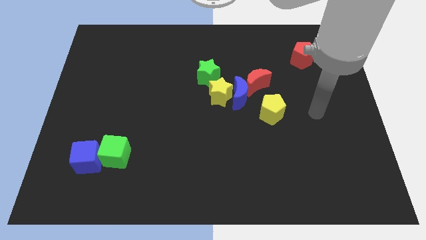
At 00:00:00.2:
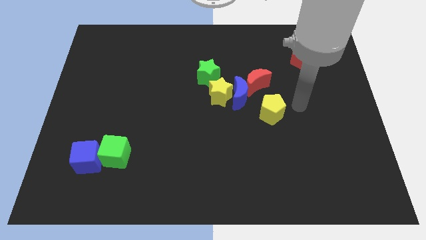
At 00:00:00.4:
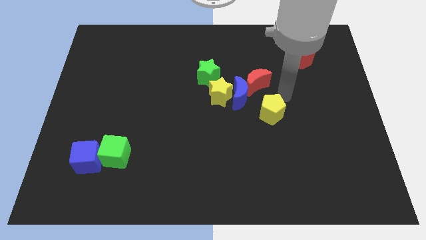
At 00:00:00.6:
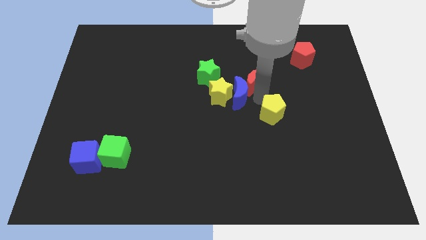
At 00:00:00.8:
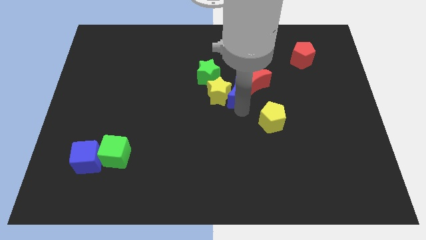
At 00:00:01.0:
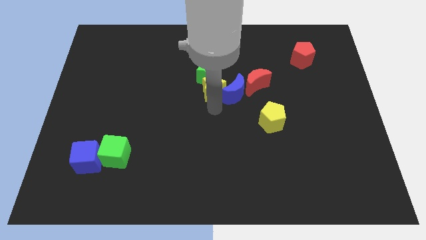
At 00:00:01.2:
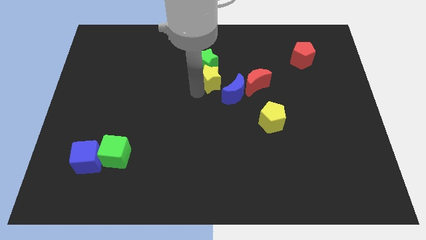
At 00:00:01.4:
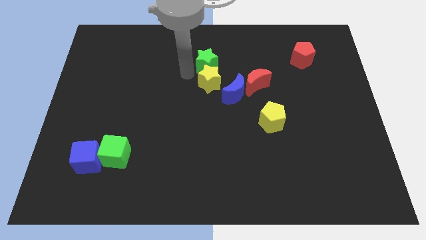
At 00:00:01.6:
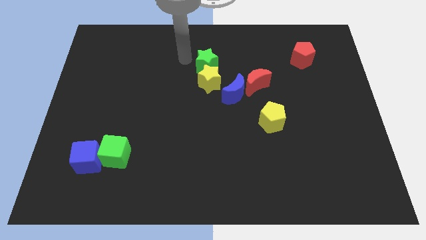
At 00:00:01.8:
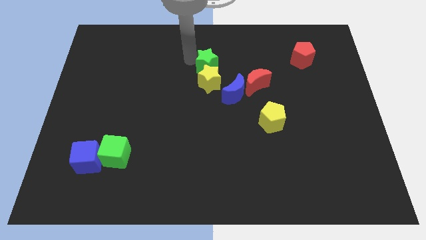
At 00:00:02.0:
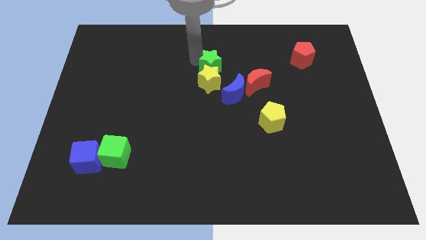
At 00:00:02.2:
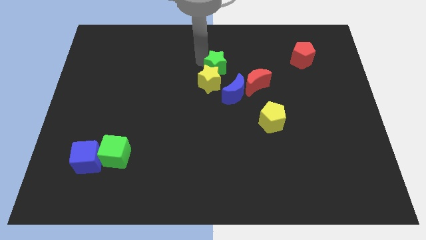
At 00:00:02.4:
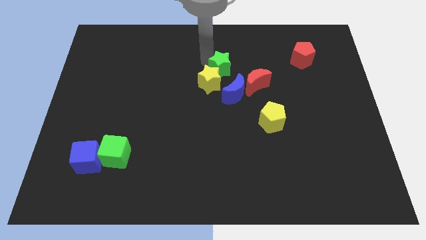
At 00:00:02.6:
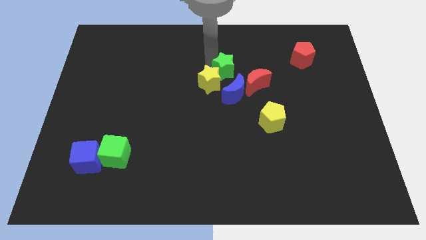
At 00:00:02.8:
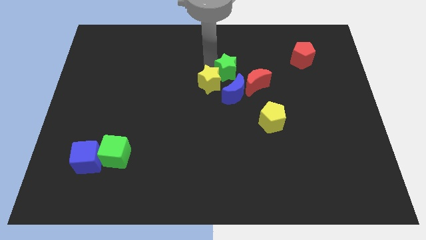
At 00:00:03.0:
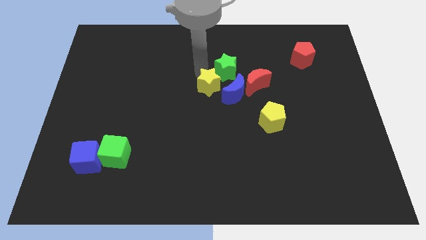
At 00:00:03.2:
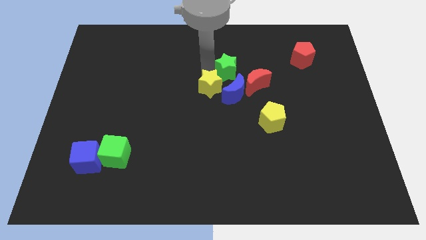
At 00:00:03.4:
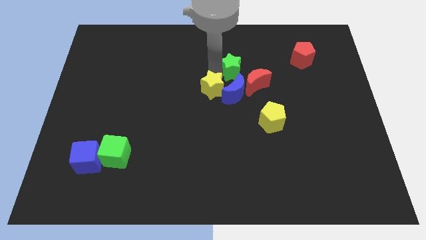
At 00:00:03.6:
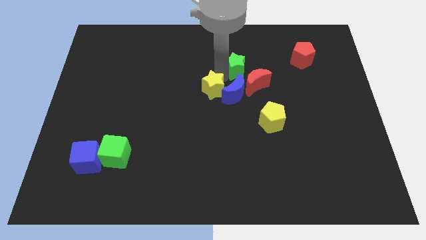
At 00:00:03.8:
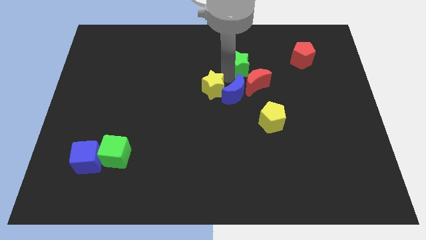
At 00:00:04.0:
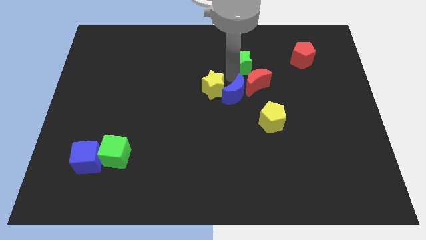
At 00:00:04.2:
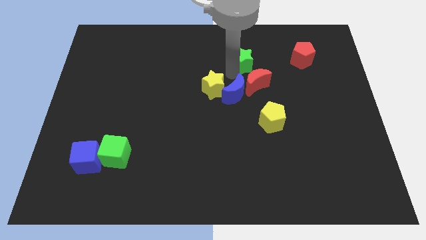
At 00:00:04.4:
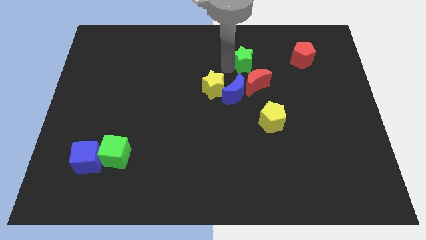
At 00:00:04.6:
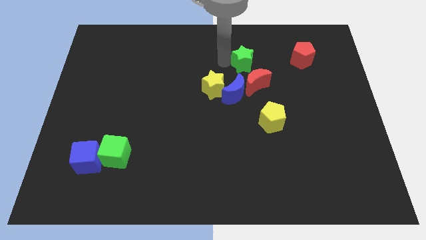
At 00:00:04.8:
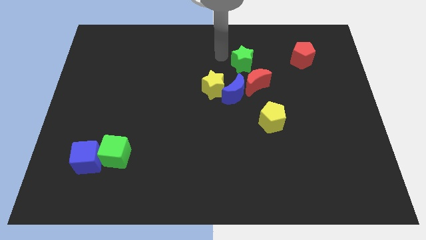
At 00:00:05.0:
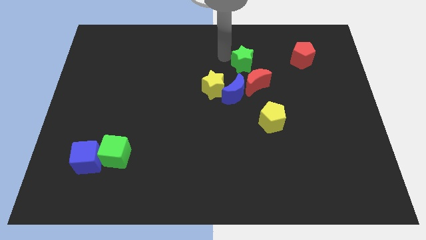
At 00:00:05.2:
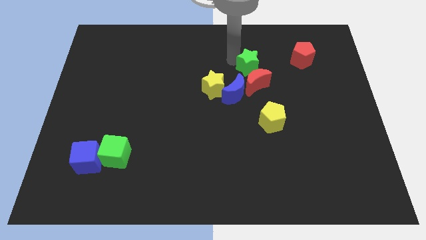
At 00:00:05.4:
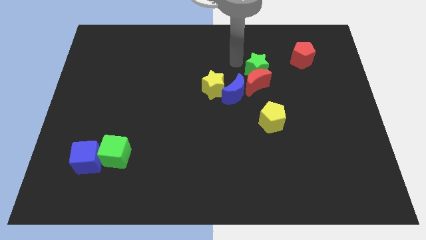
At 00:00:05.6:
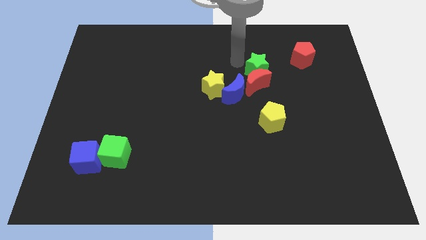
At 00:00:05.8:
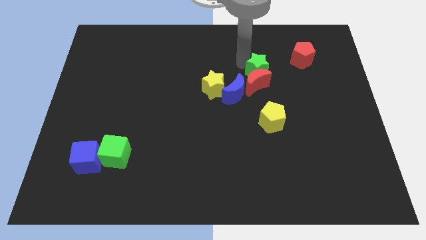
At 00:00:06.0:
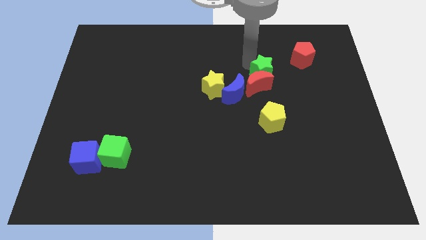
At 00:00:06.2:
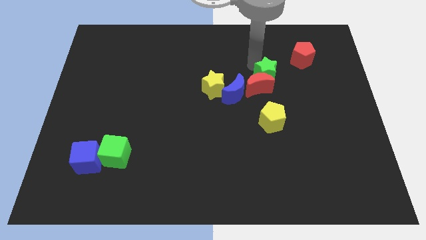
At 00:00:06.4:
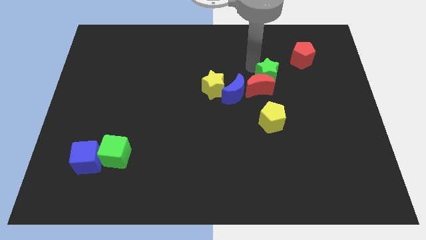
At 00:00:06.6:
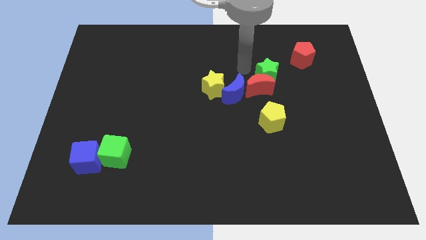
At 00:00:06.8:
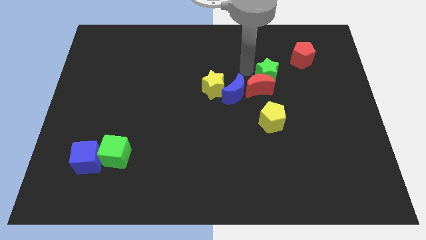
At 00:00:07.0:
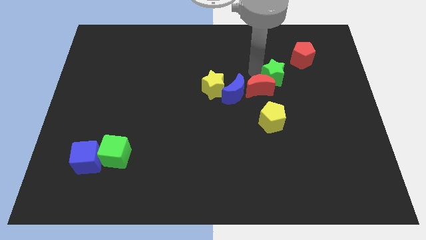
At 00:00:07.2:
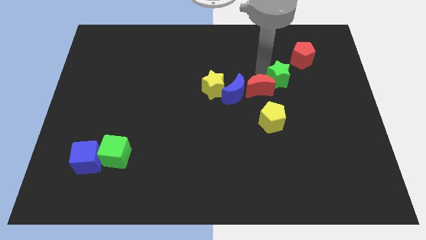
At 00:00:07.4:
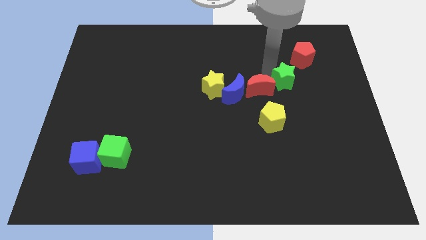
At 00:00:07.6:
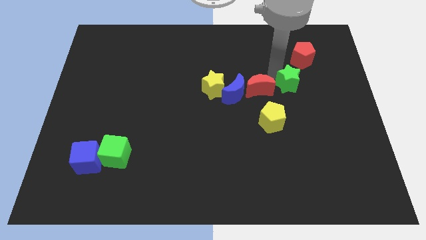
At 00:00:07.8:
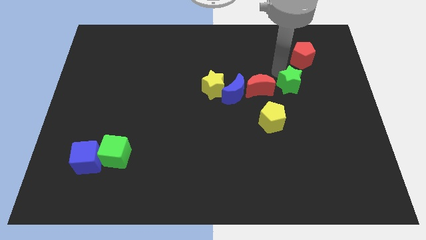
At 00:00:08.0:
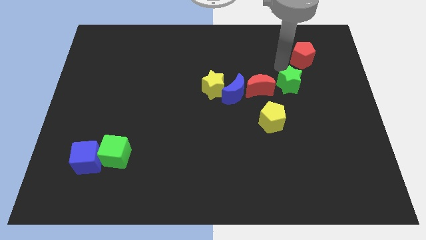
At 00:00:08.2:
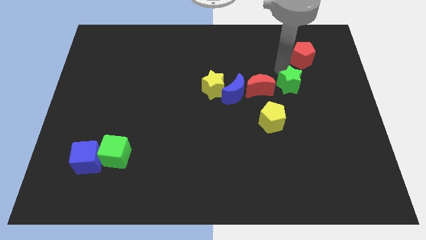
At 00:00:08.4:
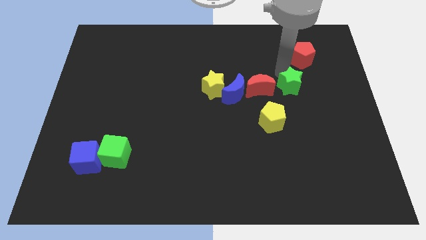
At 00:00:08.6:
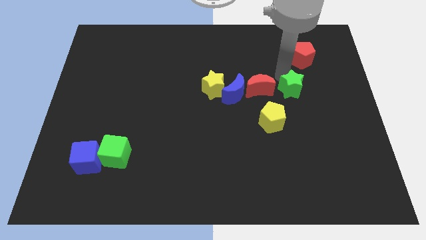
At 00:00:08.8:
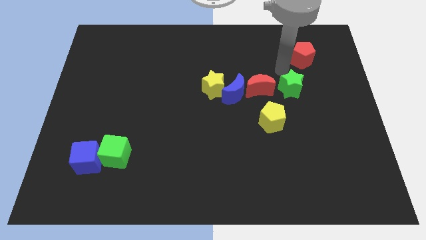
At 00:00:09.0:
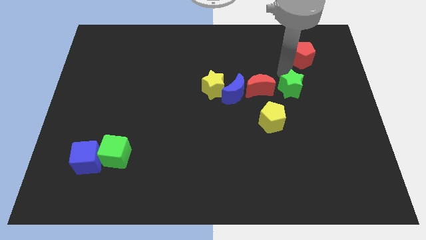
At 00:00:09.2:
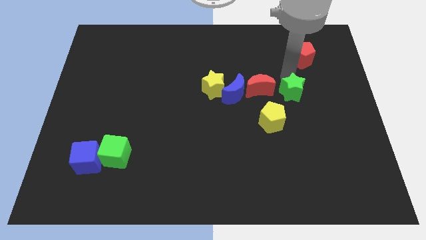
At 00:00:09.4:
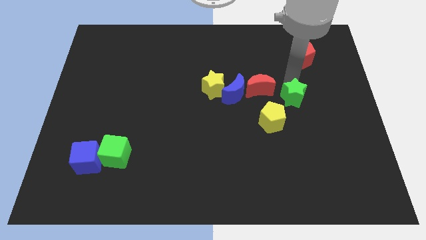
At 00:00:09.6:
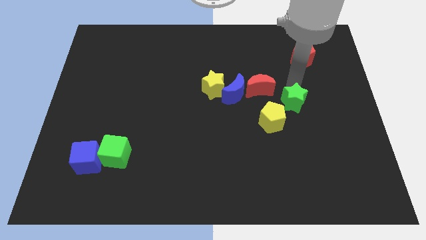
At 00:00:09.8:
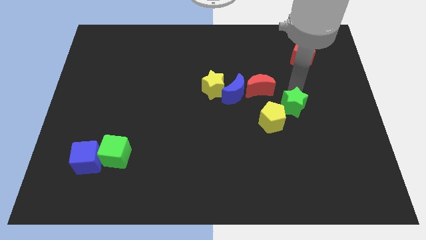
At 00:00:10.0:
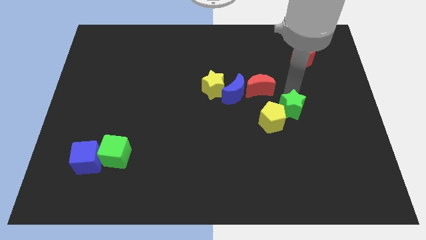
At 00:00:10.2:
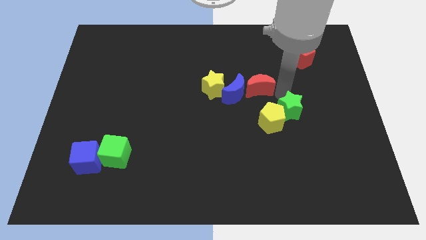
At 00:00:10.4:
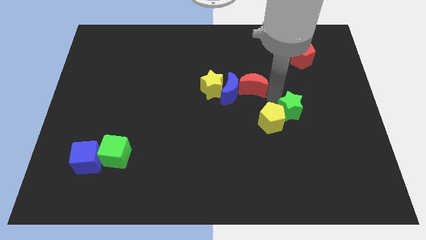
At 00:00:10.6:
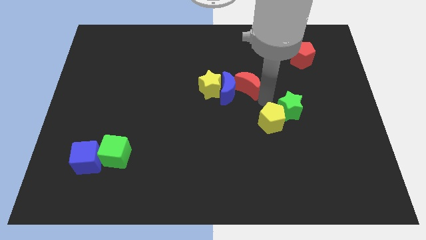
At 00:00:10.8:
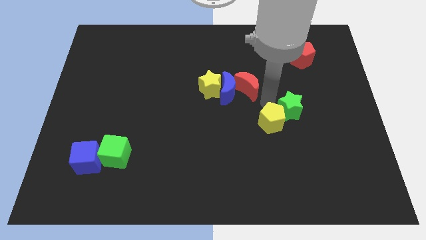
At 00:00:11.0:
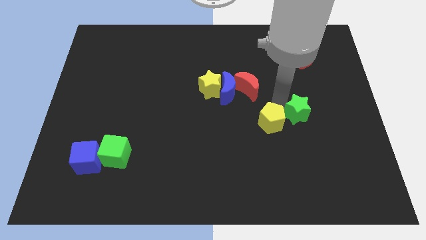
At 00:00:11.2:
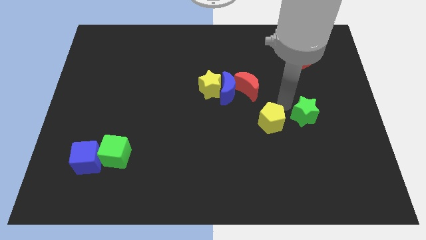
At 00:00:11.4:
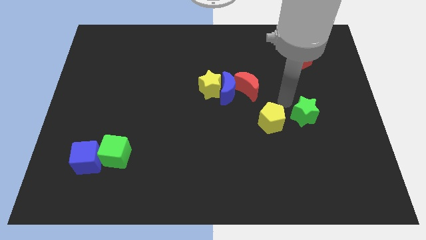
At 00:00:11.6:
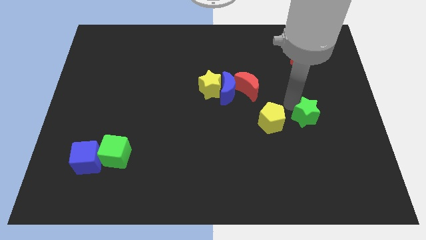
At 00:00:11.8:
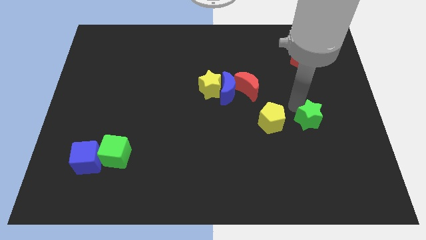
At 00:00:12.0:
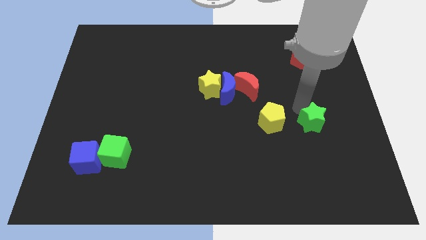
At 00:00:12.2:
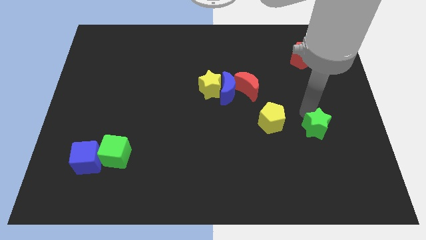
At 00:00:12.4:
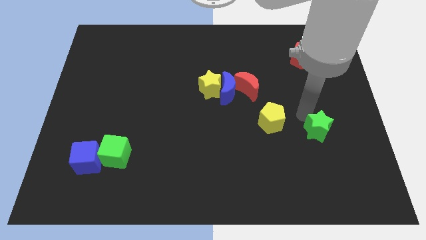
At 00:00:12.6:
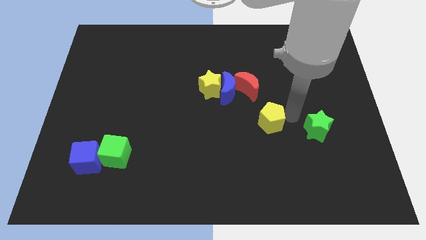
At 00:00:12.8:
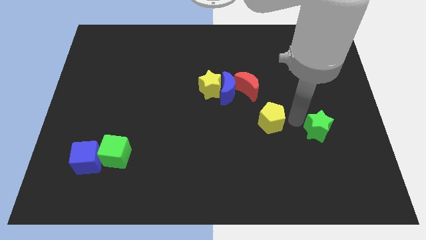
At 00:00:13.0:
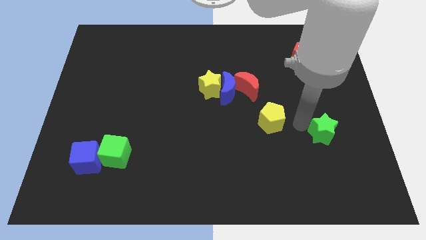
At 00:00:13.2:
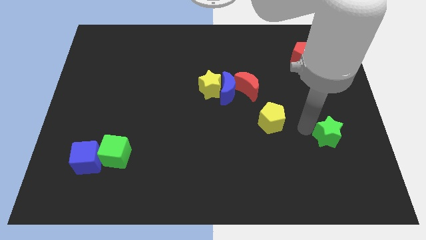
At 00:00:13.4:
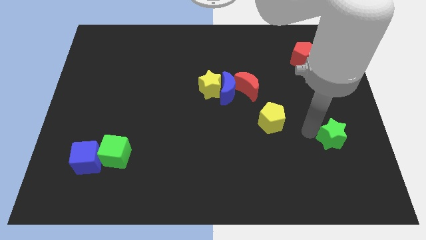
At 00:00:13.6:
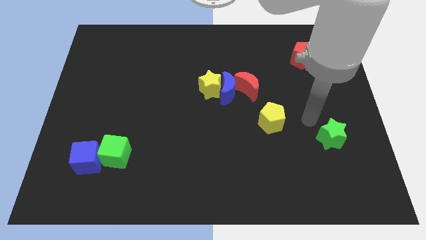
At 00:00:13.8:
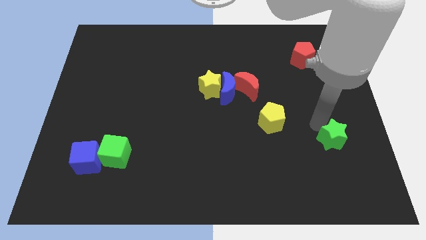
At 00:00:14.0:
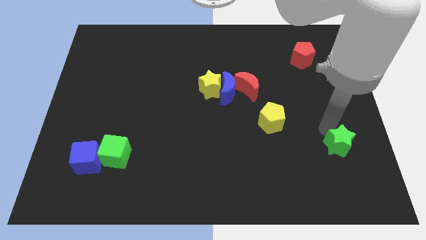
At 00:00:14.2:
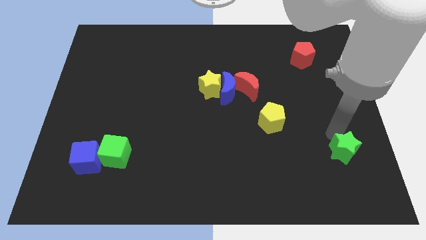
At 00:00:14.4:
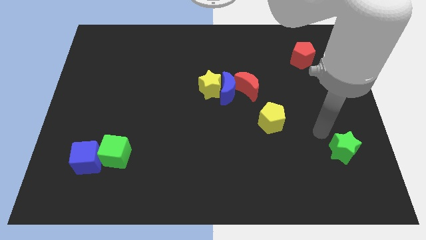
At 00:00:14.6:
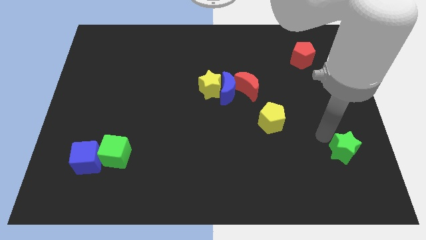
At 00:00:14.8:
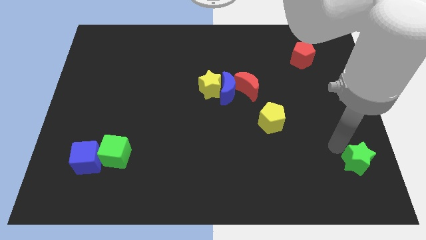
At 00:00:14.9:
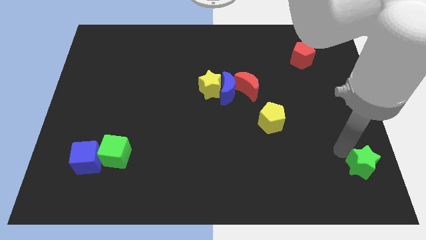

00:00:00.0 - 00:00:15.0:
put the green star to the bottom right corner
